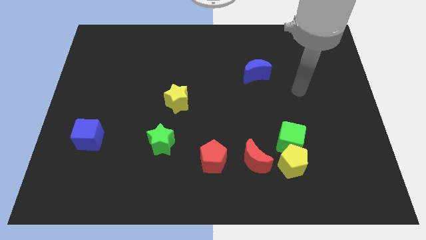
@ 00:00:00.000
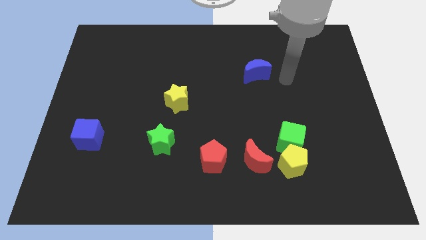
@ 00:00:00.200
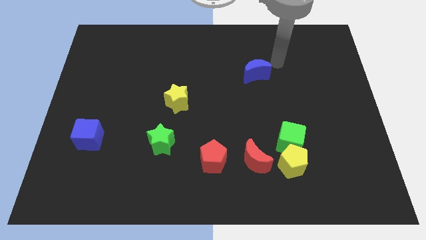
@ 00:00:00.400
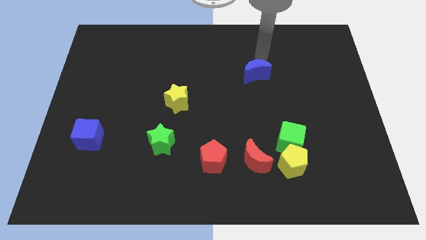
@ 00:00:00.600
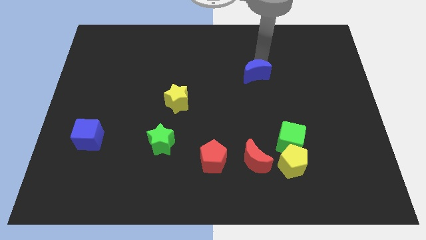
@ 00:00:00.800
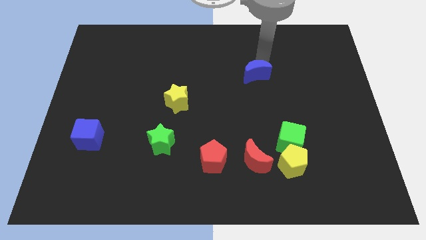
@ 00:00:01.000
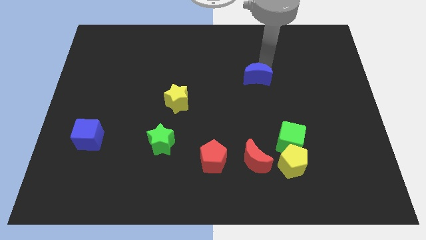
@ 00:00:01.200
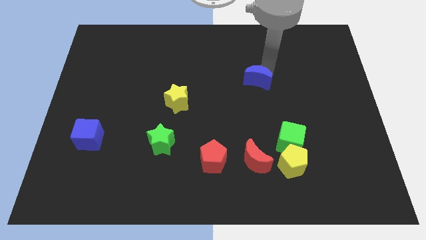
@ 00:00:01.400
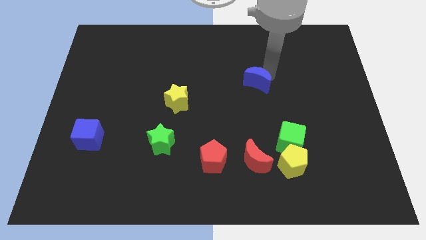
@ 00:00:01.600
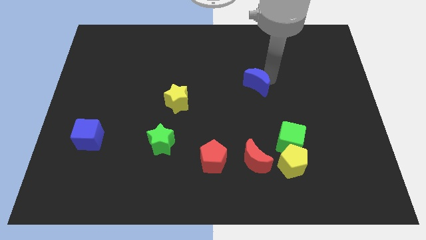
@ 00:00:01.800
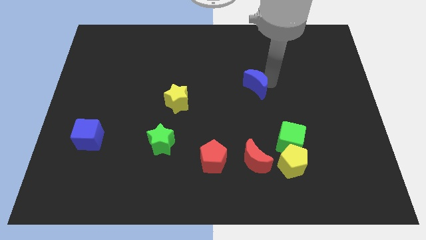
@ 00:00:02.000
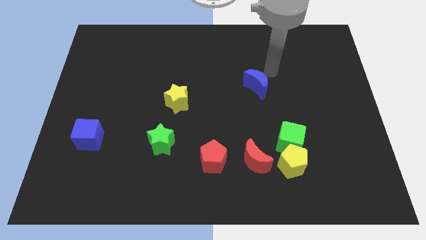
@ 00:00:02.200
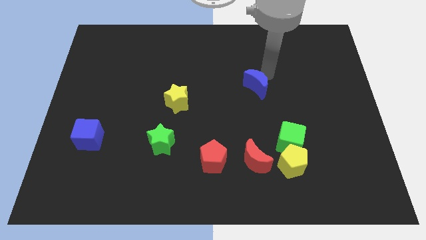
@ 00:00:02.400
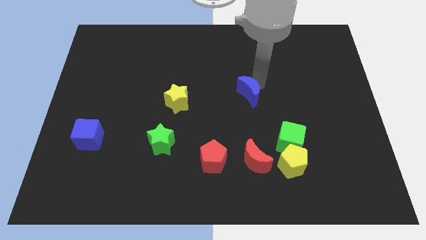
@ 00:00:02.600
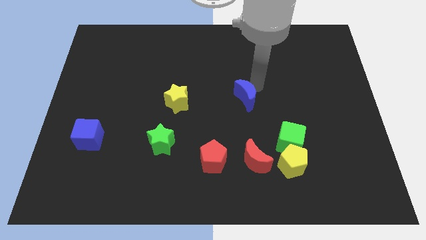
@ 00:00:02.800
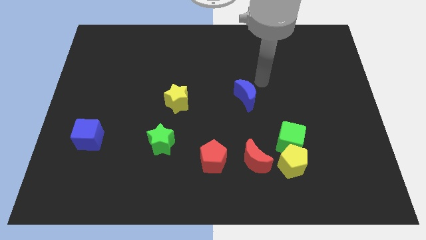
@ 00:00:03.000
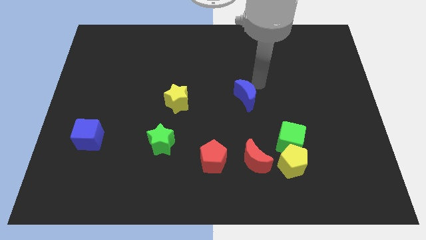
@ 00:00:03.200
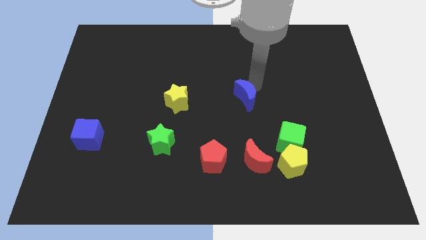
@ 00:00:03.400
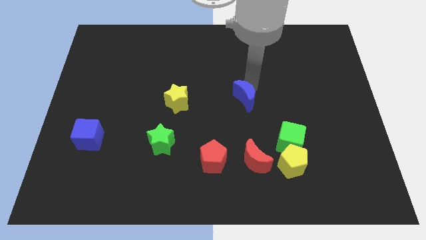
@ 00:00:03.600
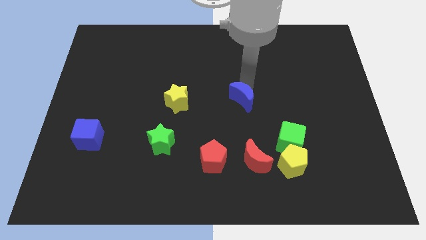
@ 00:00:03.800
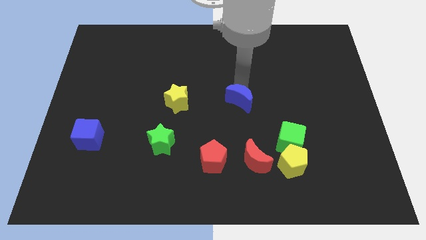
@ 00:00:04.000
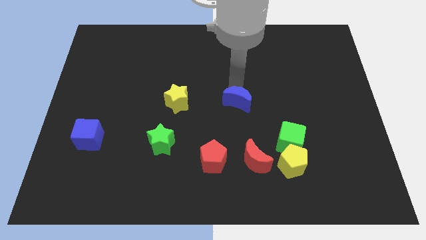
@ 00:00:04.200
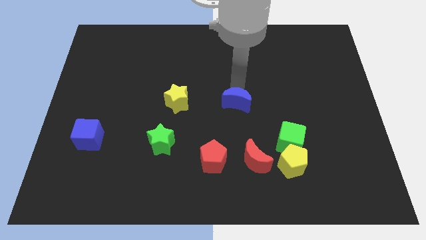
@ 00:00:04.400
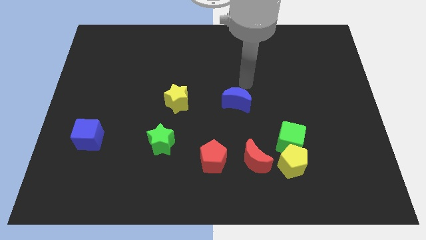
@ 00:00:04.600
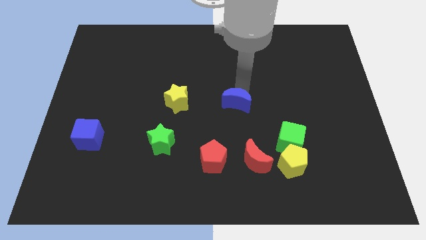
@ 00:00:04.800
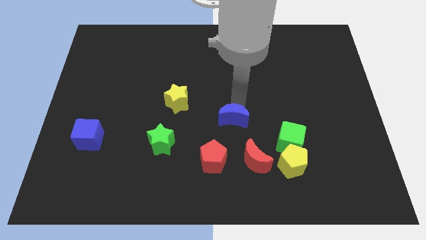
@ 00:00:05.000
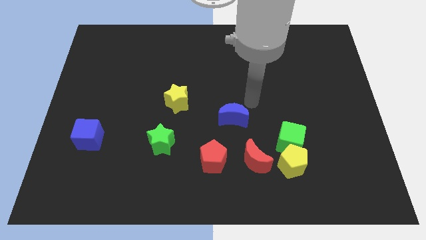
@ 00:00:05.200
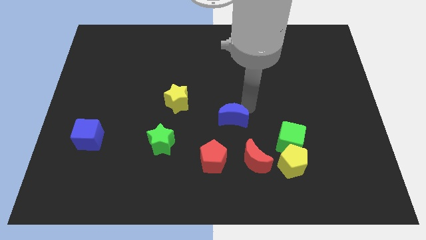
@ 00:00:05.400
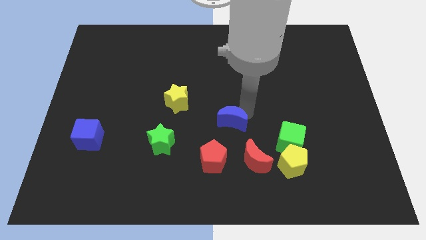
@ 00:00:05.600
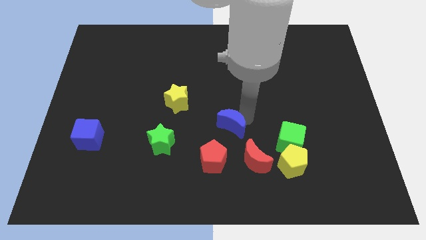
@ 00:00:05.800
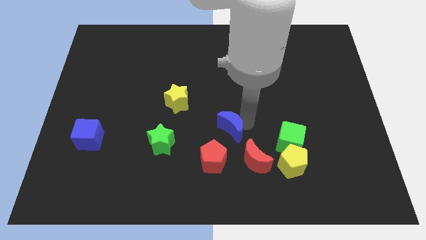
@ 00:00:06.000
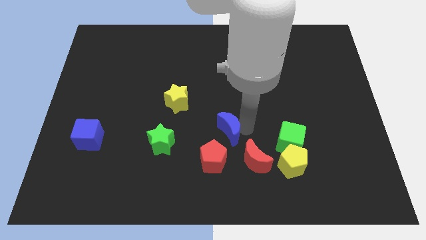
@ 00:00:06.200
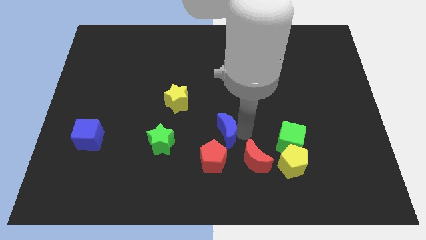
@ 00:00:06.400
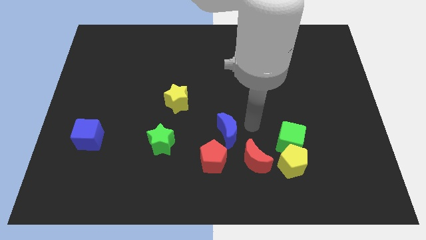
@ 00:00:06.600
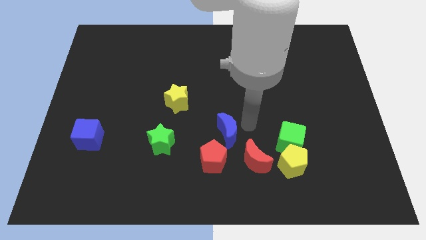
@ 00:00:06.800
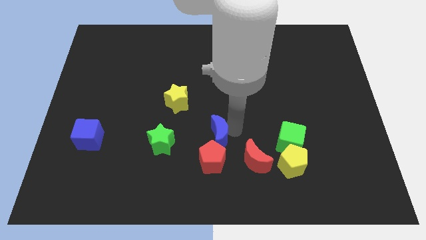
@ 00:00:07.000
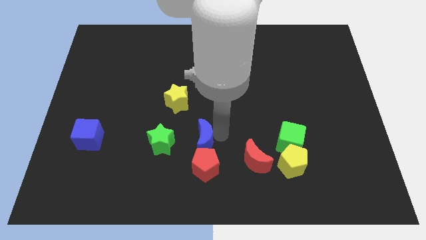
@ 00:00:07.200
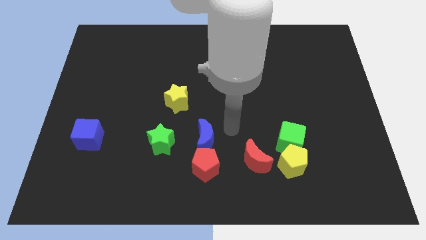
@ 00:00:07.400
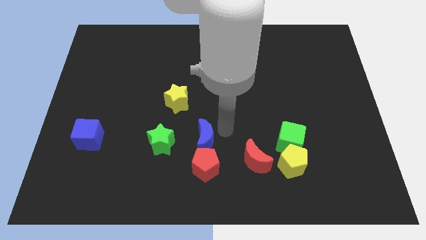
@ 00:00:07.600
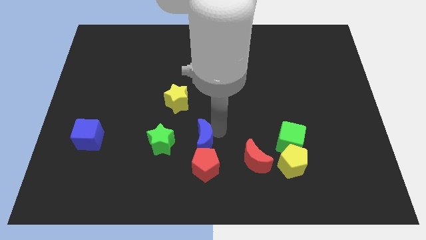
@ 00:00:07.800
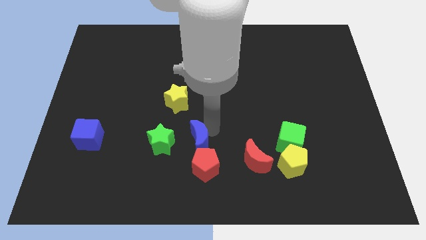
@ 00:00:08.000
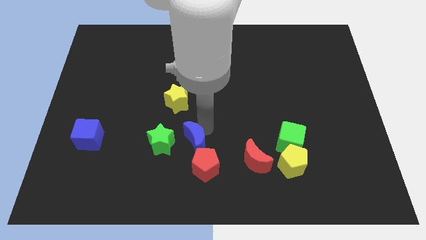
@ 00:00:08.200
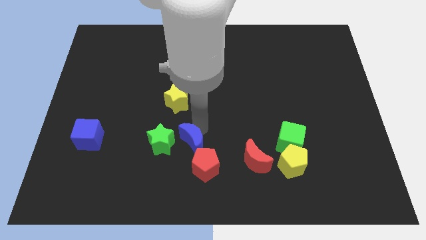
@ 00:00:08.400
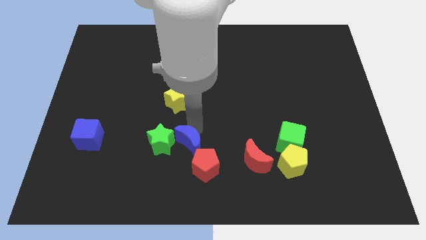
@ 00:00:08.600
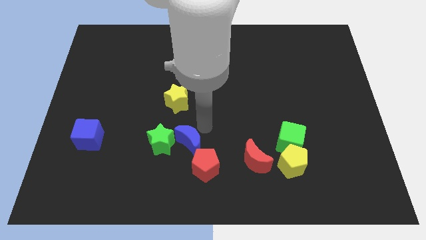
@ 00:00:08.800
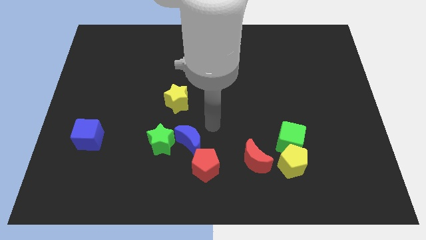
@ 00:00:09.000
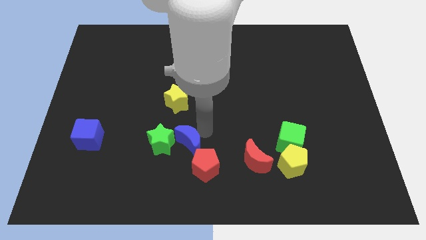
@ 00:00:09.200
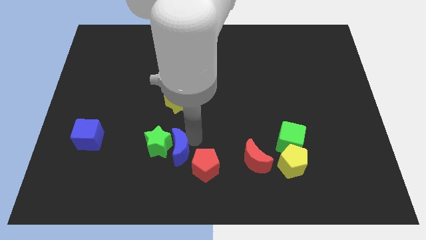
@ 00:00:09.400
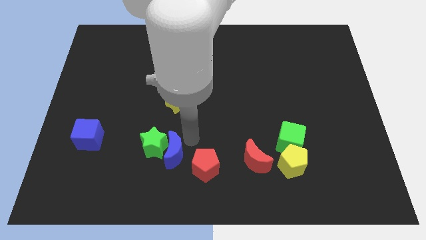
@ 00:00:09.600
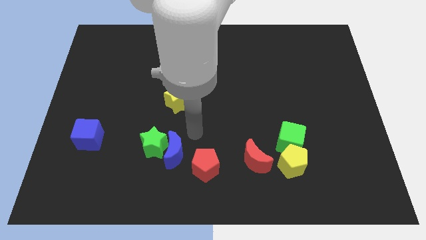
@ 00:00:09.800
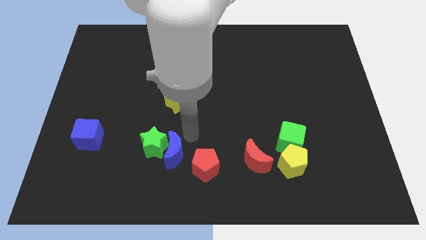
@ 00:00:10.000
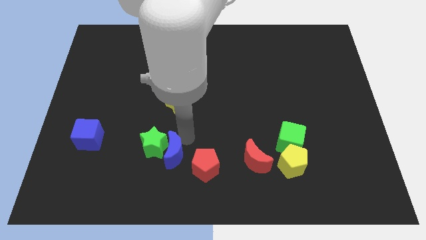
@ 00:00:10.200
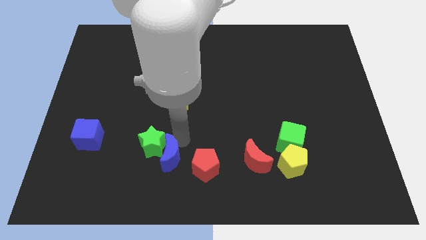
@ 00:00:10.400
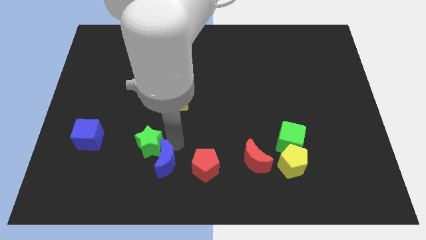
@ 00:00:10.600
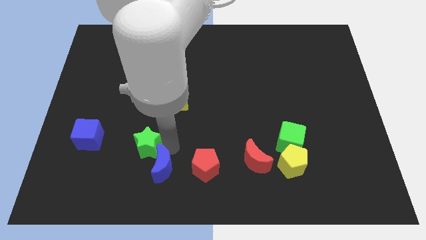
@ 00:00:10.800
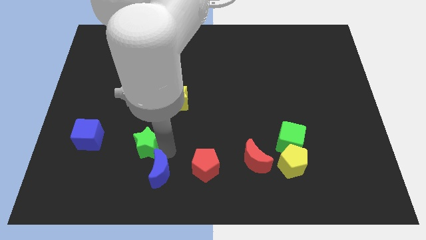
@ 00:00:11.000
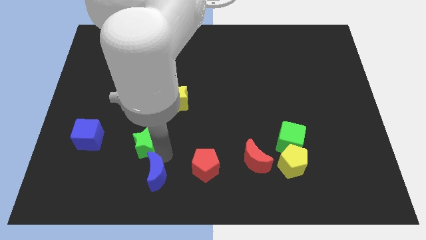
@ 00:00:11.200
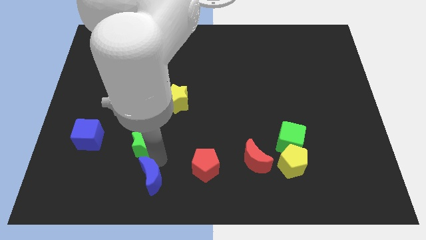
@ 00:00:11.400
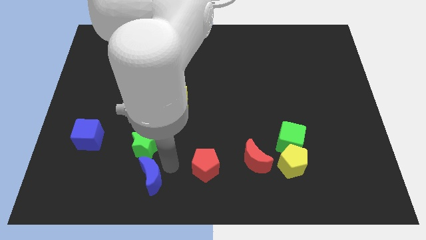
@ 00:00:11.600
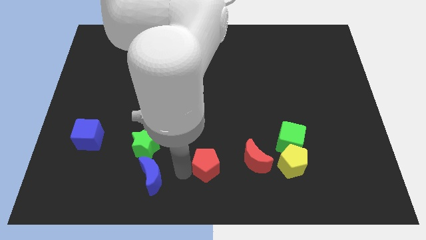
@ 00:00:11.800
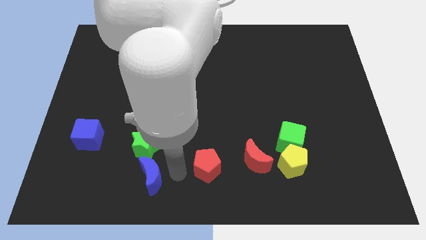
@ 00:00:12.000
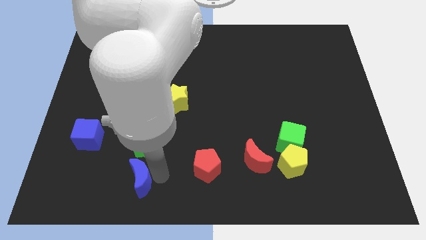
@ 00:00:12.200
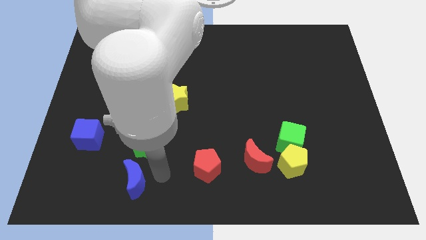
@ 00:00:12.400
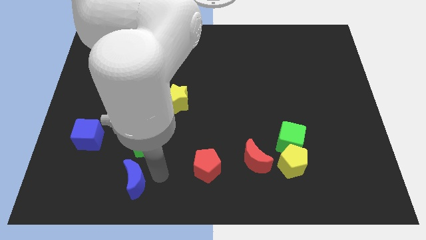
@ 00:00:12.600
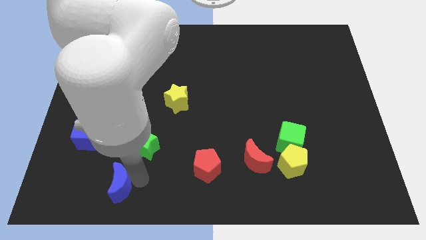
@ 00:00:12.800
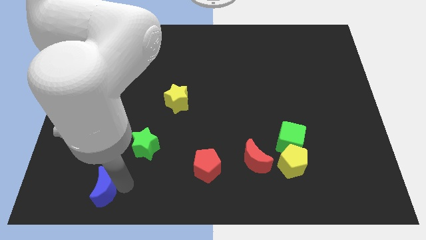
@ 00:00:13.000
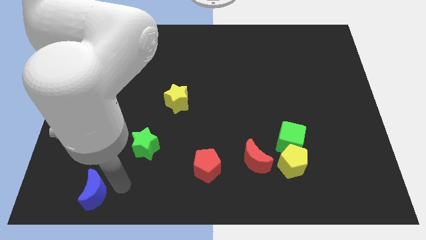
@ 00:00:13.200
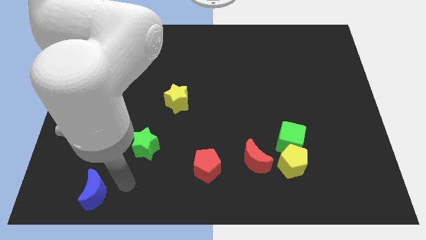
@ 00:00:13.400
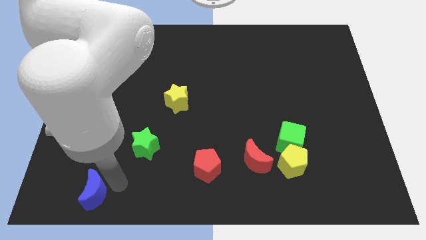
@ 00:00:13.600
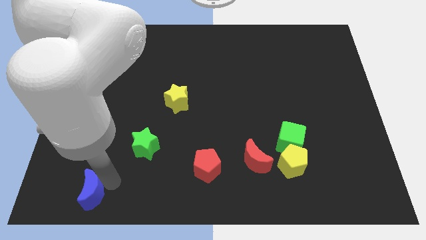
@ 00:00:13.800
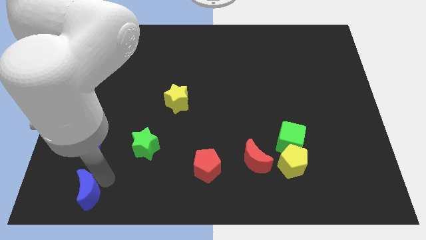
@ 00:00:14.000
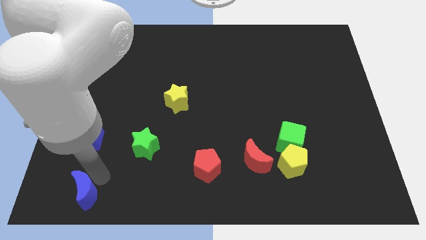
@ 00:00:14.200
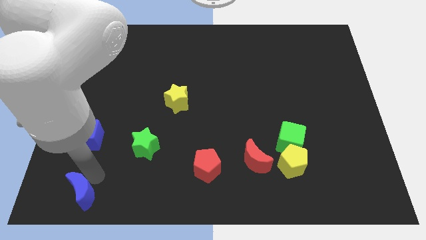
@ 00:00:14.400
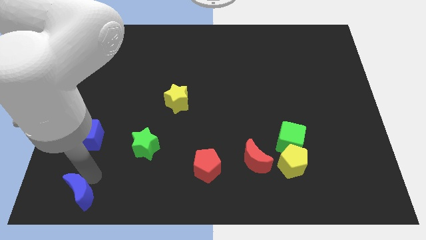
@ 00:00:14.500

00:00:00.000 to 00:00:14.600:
move the blue moon to the bottom left corner
